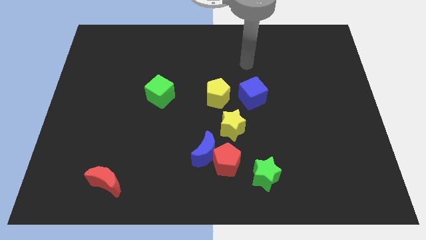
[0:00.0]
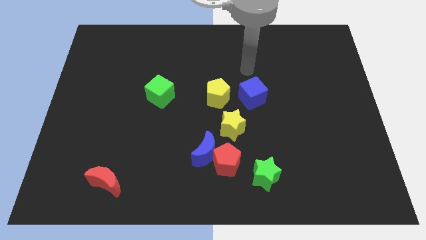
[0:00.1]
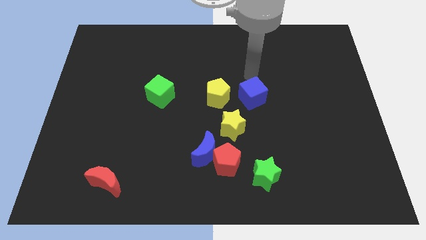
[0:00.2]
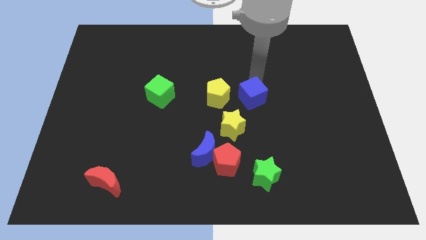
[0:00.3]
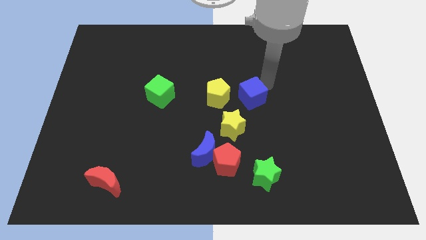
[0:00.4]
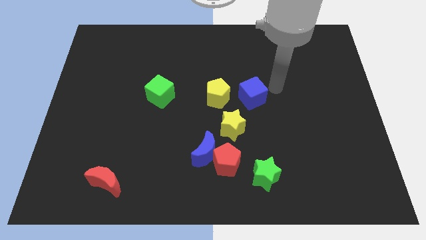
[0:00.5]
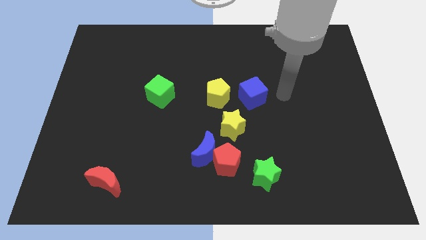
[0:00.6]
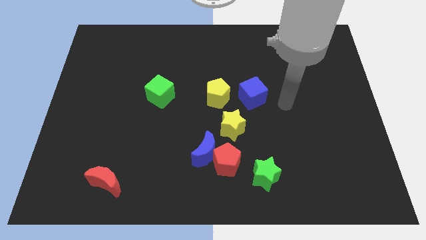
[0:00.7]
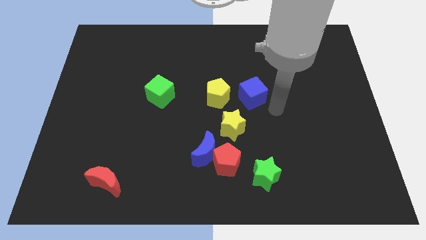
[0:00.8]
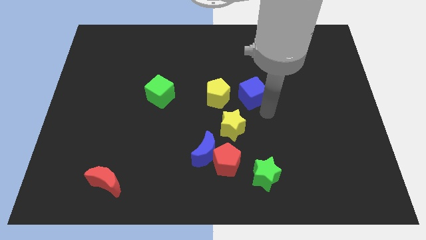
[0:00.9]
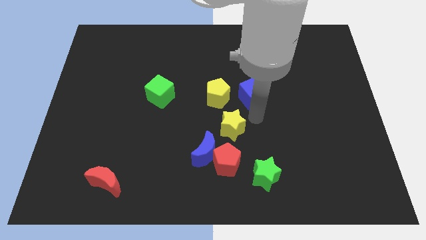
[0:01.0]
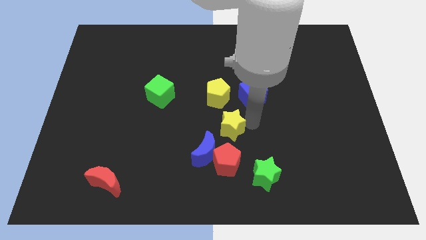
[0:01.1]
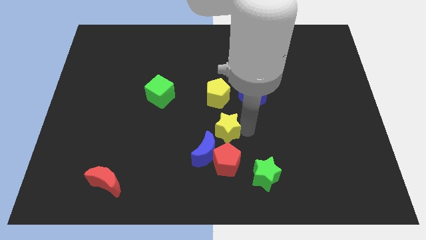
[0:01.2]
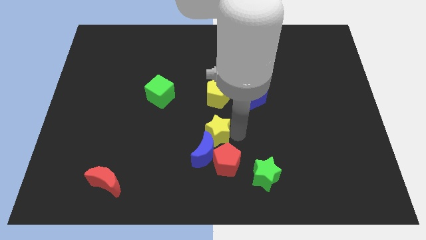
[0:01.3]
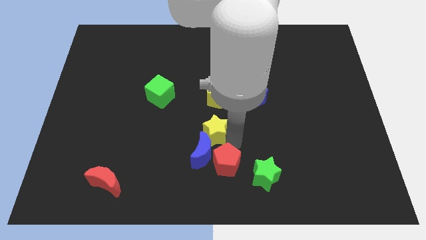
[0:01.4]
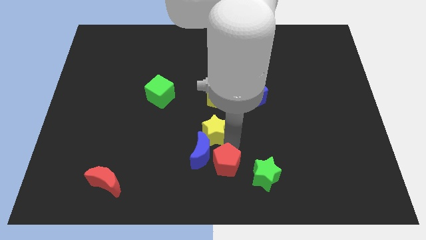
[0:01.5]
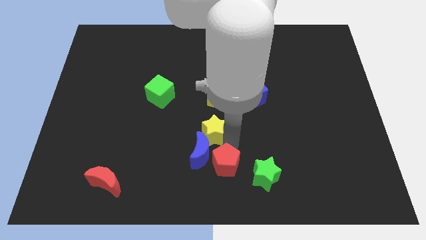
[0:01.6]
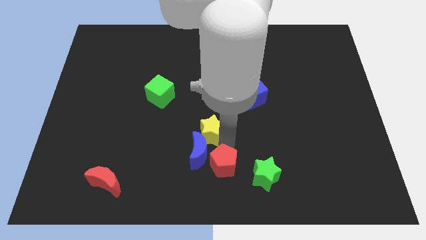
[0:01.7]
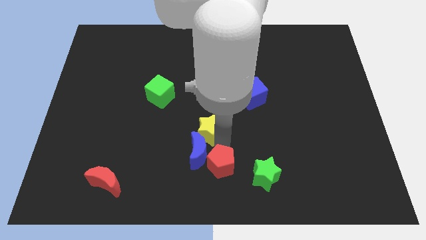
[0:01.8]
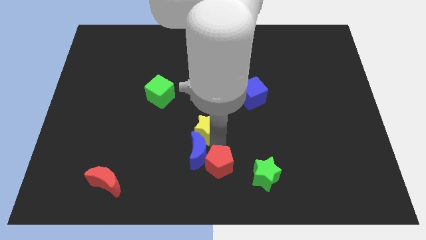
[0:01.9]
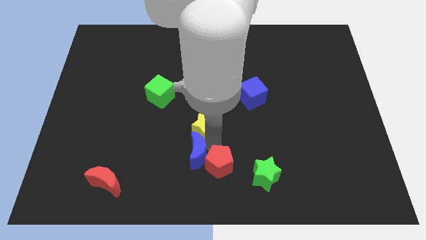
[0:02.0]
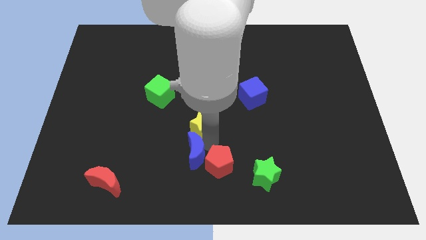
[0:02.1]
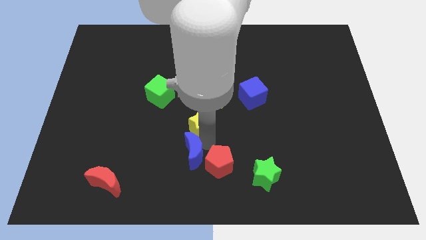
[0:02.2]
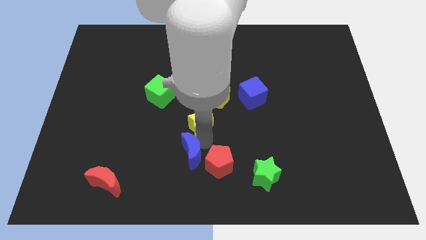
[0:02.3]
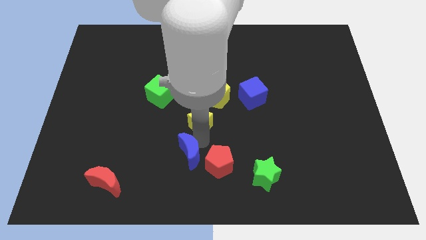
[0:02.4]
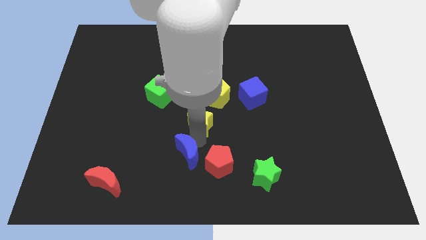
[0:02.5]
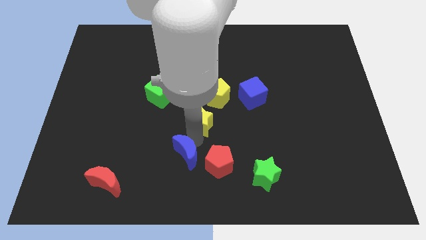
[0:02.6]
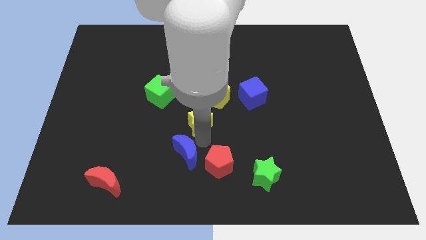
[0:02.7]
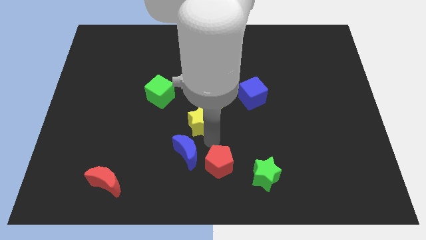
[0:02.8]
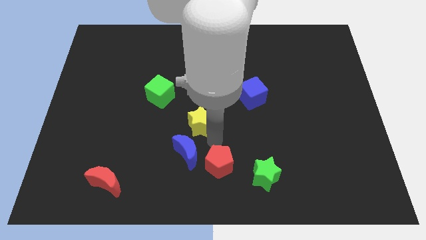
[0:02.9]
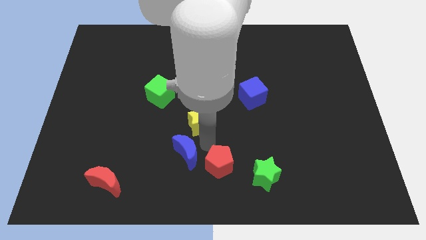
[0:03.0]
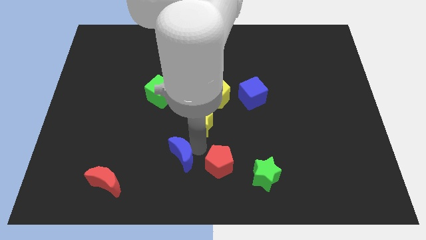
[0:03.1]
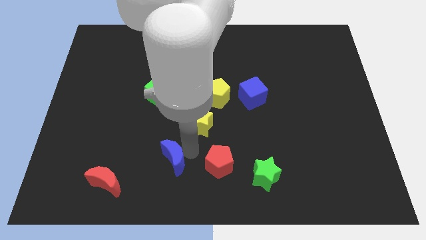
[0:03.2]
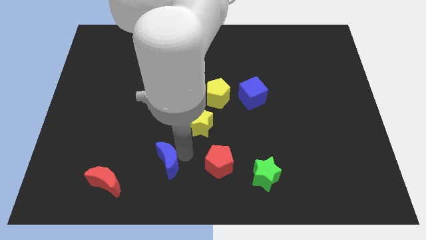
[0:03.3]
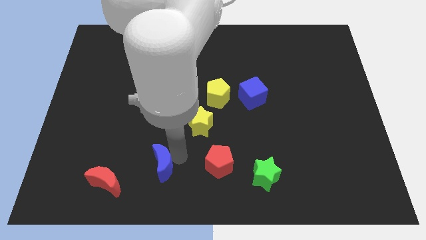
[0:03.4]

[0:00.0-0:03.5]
separate the blue moon from the red pentagon and yellow star

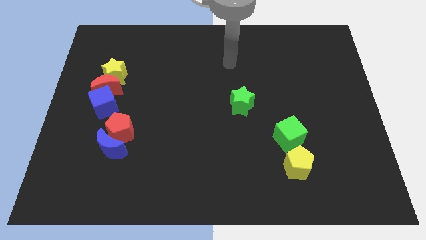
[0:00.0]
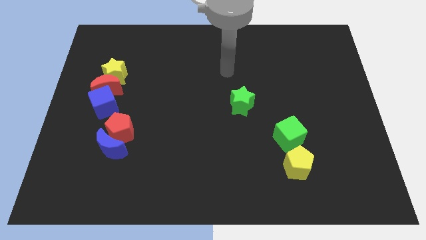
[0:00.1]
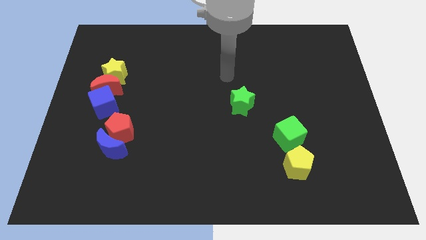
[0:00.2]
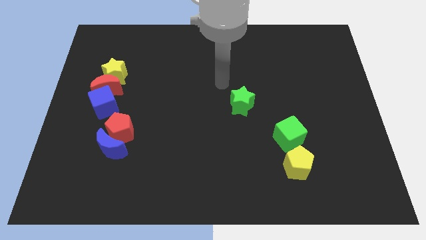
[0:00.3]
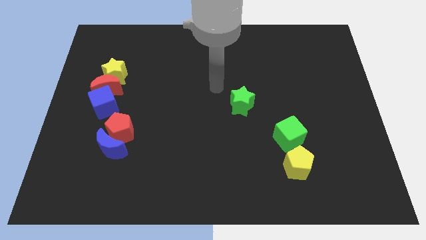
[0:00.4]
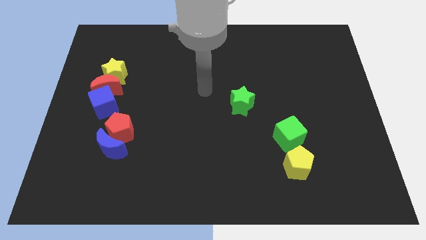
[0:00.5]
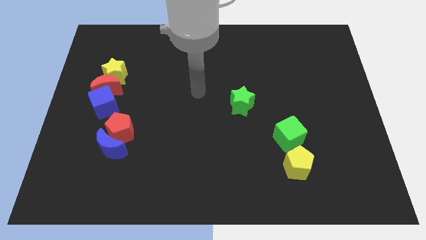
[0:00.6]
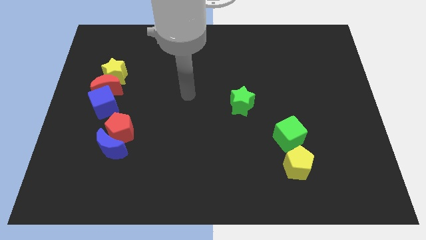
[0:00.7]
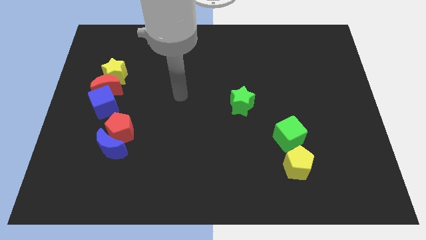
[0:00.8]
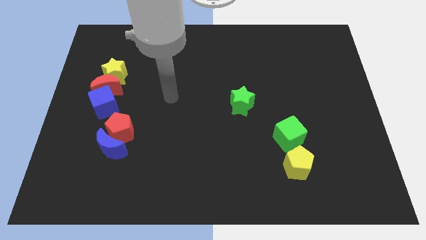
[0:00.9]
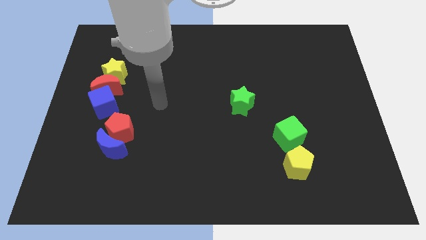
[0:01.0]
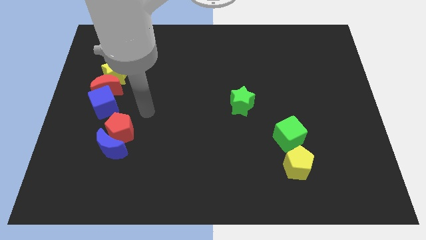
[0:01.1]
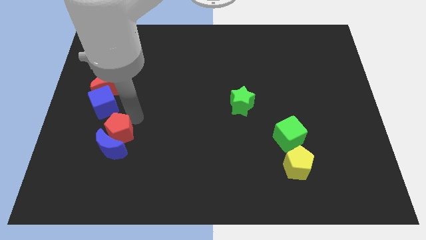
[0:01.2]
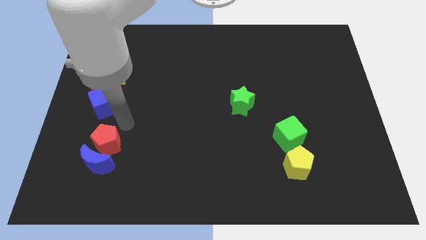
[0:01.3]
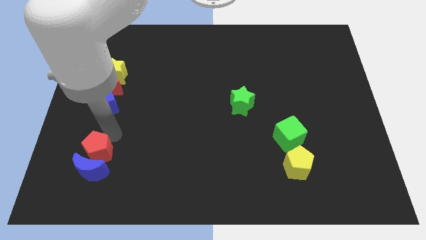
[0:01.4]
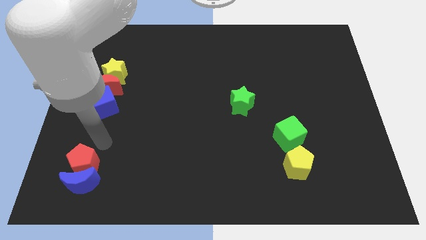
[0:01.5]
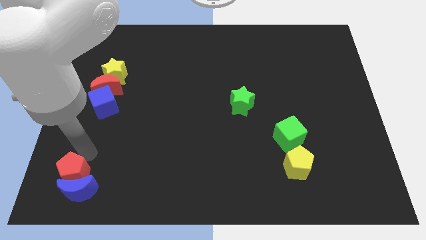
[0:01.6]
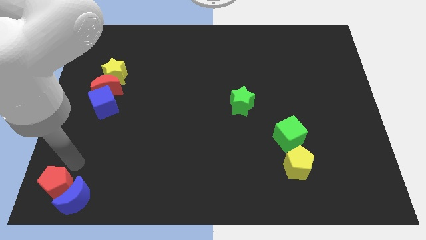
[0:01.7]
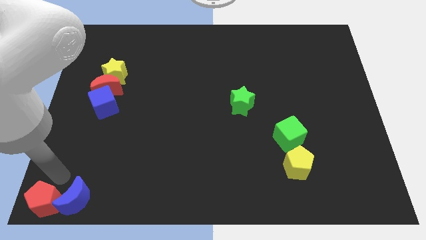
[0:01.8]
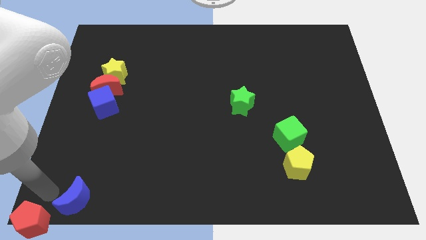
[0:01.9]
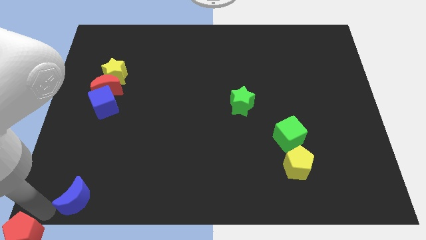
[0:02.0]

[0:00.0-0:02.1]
separate the blue moon from the red pentagon

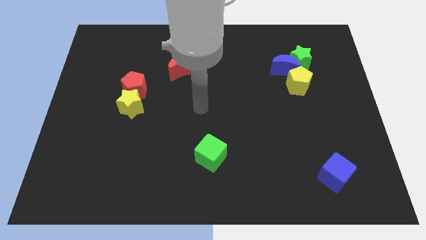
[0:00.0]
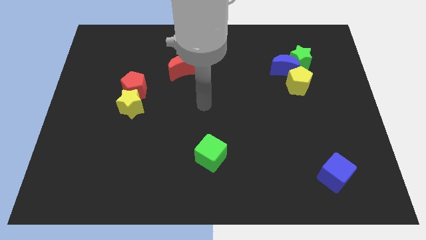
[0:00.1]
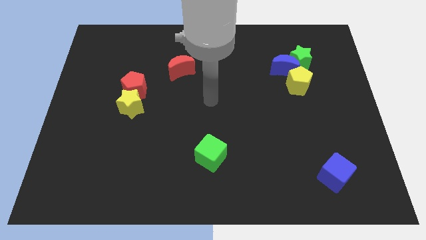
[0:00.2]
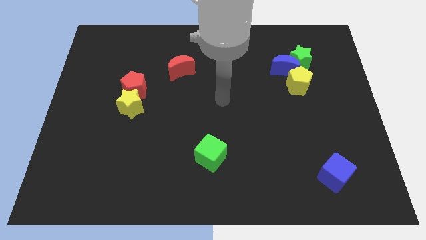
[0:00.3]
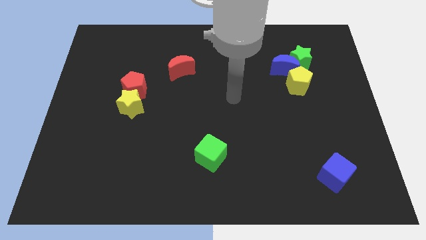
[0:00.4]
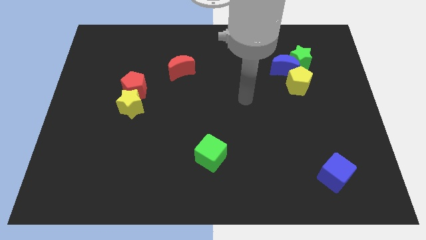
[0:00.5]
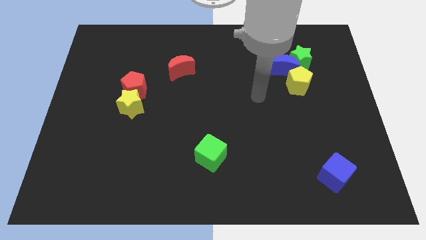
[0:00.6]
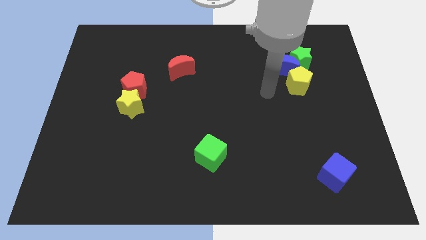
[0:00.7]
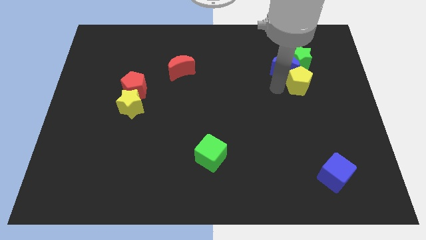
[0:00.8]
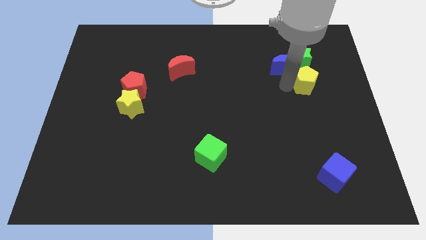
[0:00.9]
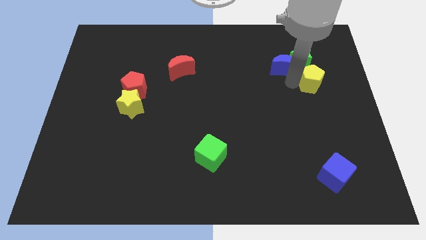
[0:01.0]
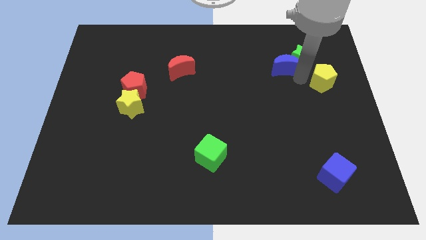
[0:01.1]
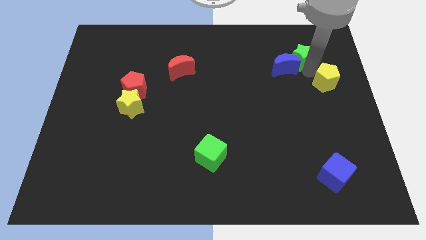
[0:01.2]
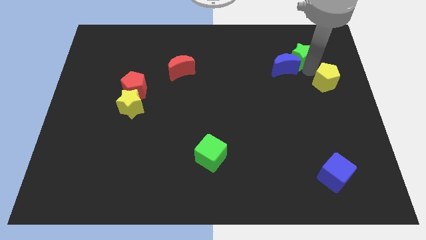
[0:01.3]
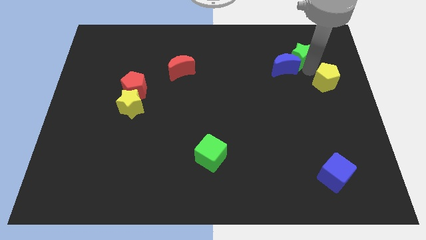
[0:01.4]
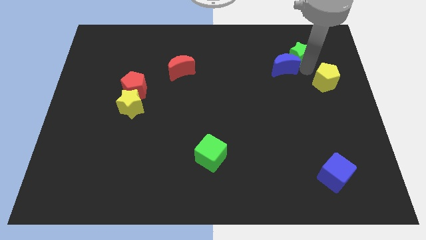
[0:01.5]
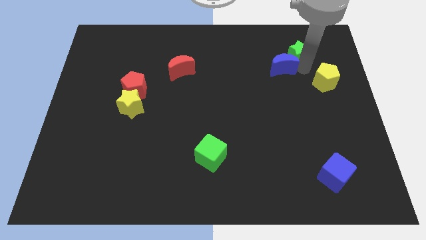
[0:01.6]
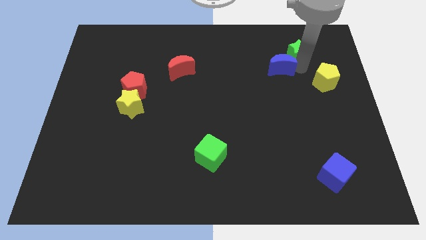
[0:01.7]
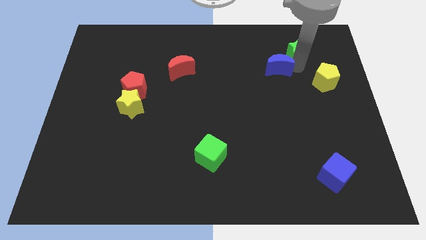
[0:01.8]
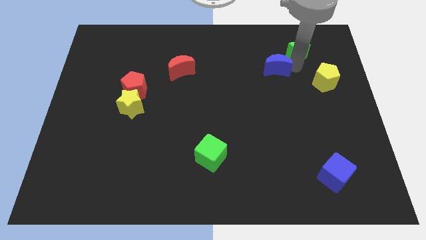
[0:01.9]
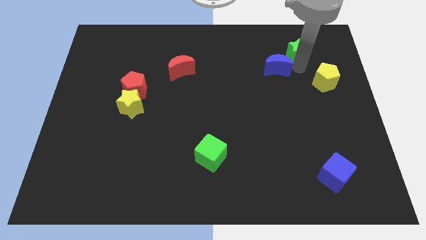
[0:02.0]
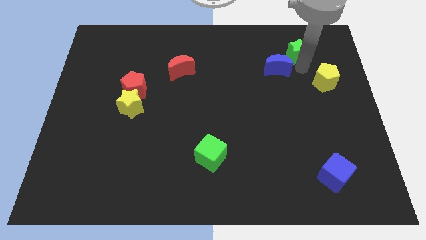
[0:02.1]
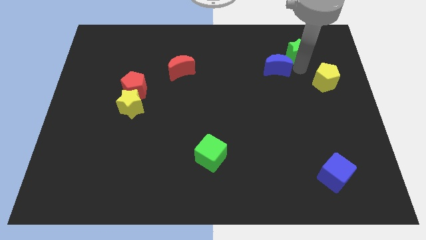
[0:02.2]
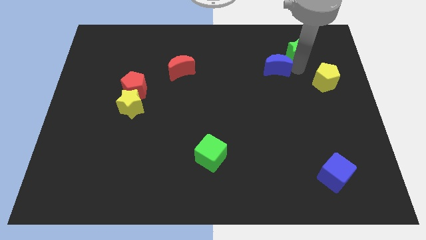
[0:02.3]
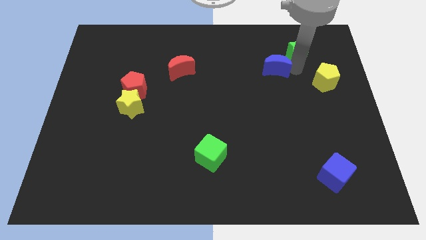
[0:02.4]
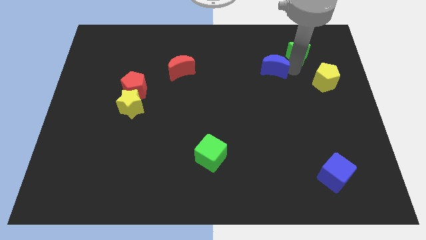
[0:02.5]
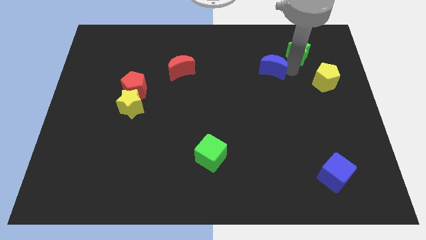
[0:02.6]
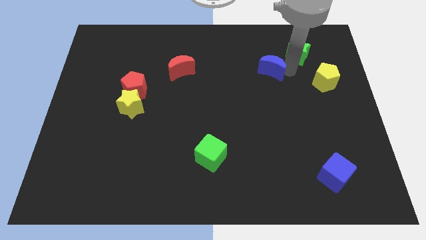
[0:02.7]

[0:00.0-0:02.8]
separate the blue moon from the green star and yellow pentagon

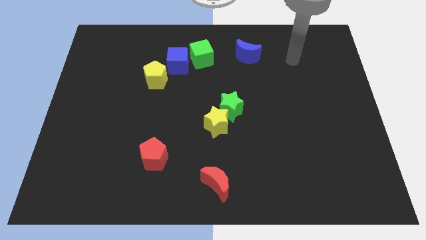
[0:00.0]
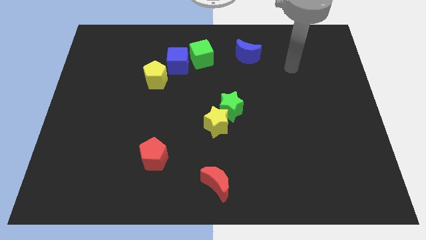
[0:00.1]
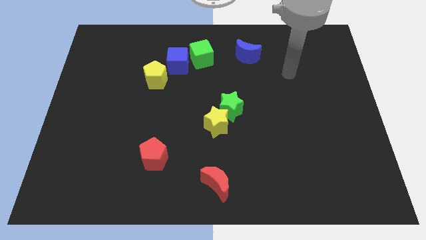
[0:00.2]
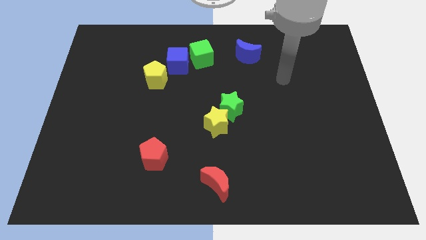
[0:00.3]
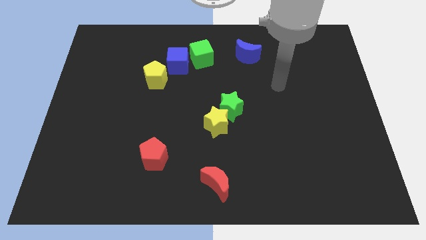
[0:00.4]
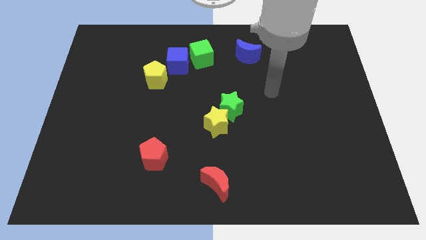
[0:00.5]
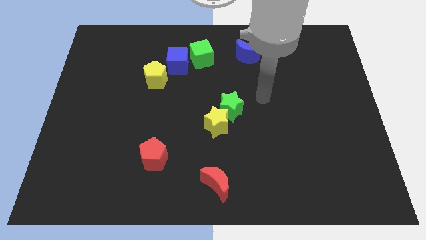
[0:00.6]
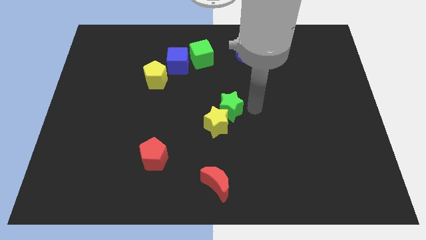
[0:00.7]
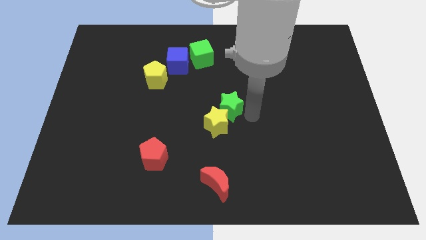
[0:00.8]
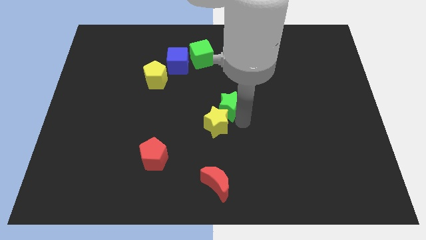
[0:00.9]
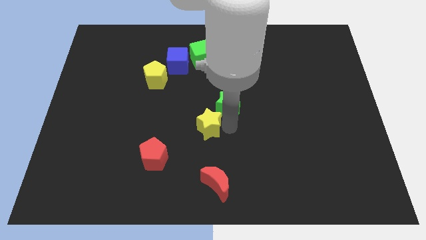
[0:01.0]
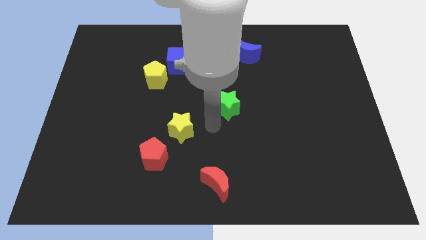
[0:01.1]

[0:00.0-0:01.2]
separate the green star from the yellow star
